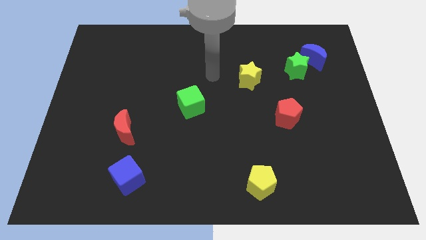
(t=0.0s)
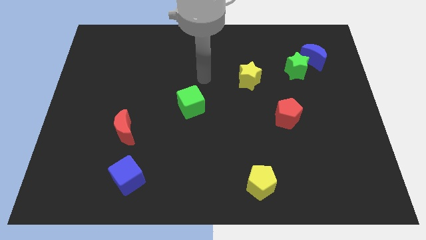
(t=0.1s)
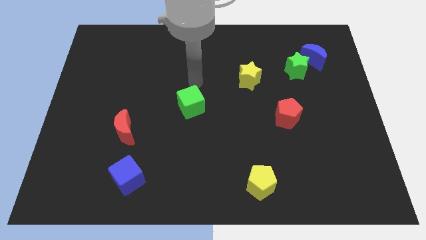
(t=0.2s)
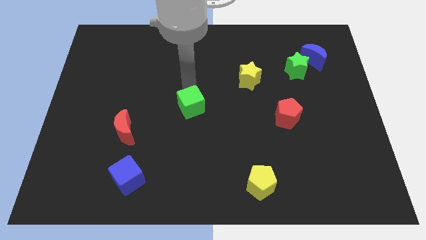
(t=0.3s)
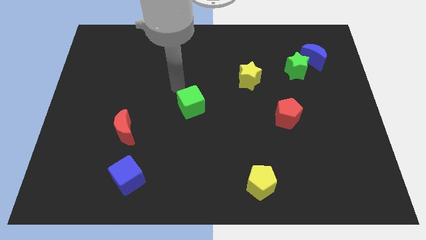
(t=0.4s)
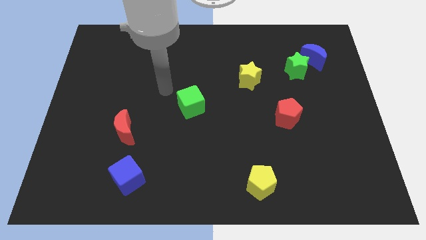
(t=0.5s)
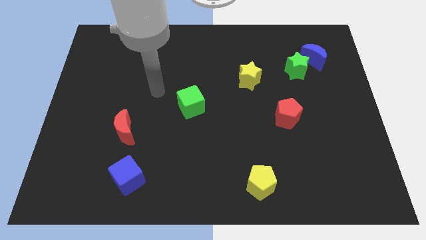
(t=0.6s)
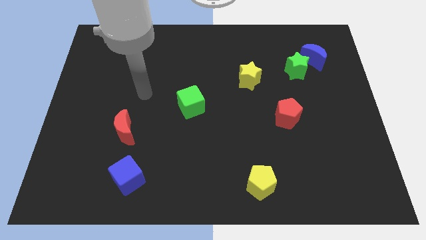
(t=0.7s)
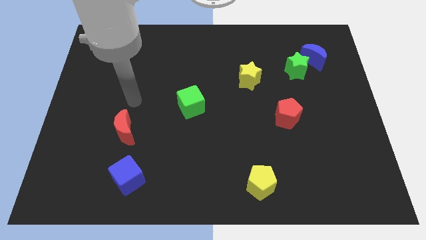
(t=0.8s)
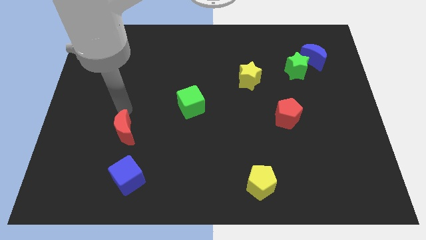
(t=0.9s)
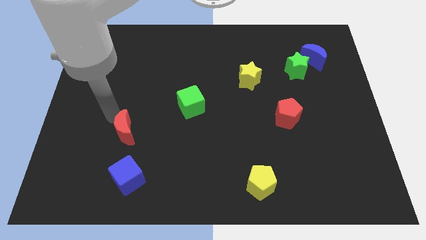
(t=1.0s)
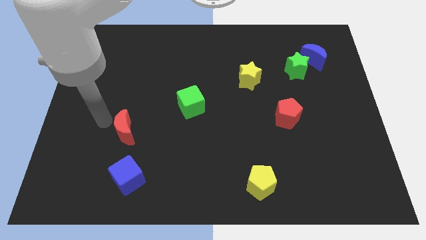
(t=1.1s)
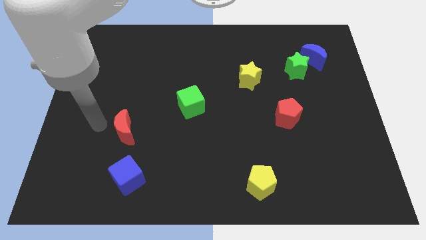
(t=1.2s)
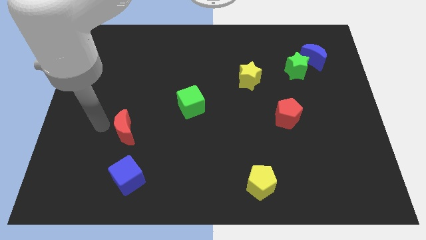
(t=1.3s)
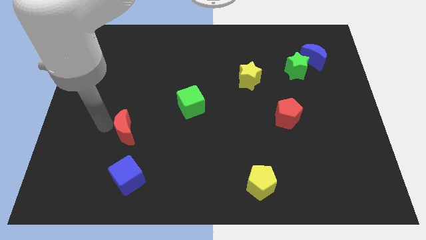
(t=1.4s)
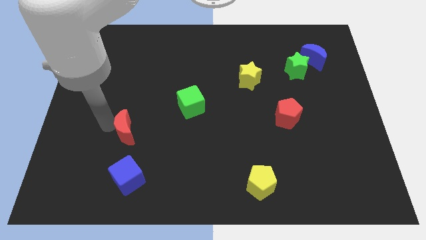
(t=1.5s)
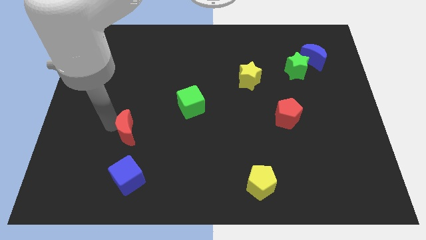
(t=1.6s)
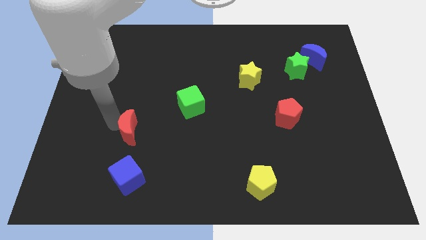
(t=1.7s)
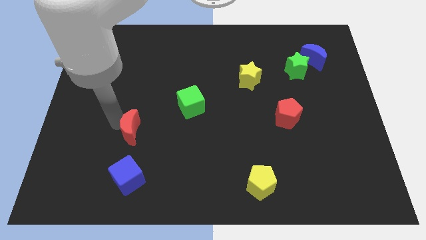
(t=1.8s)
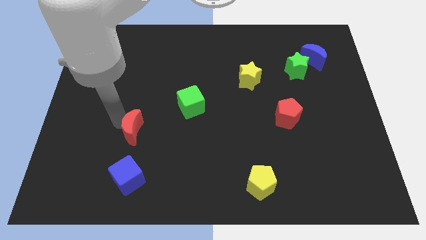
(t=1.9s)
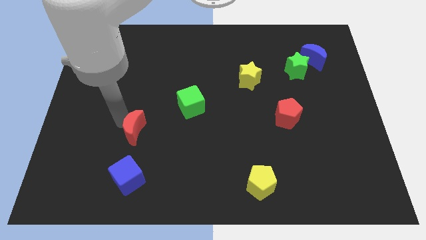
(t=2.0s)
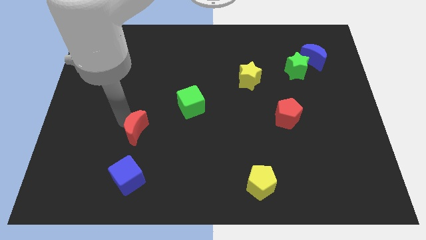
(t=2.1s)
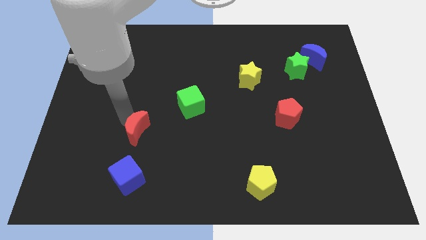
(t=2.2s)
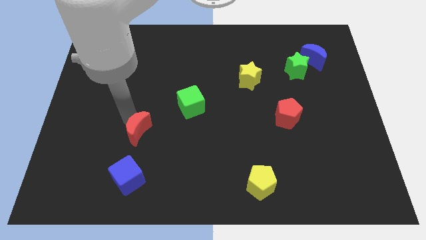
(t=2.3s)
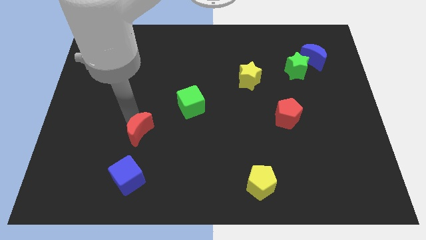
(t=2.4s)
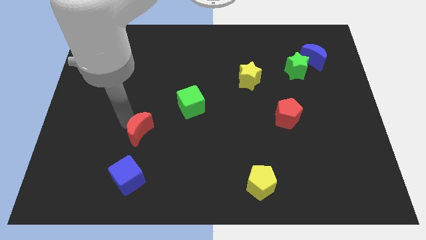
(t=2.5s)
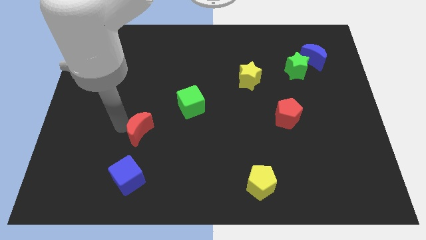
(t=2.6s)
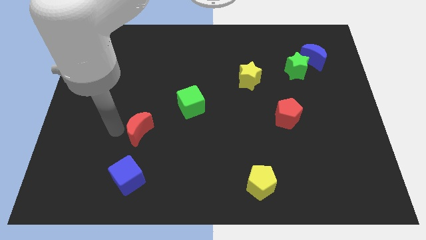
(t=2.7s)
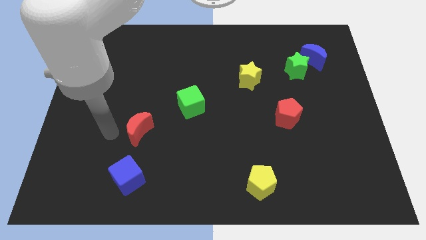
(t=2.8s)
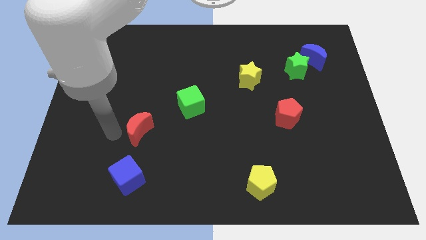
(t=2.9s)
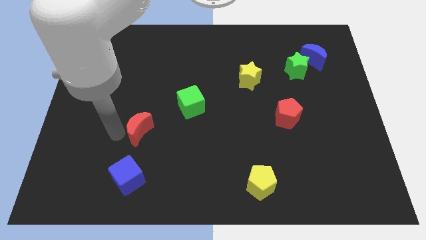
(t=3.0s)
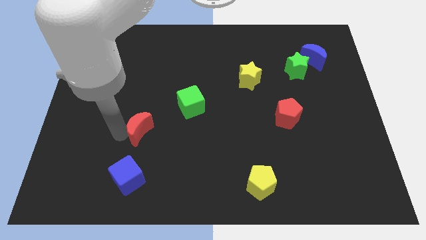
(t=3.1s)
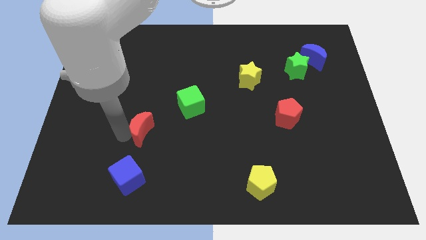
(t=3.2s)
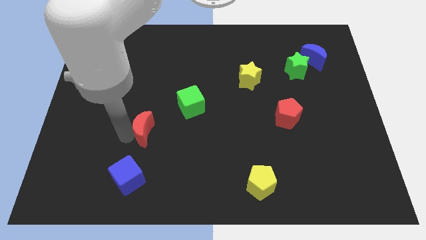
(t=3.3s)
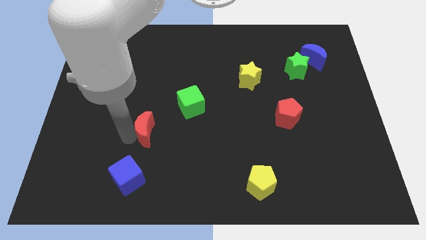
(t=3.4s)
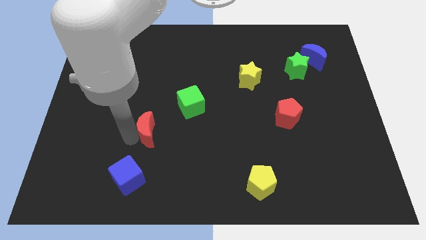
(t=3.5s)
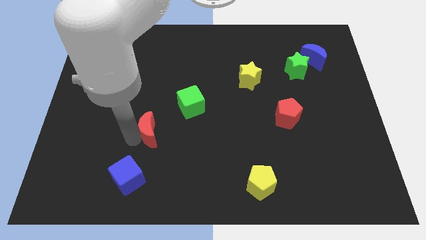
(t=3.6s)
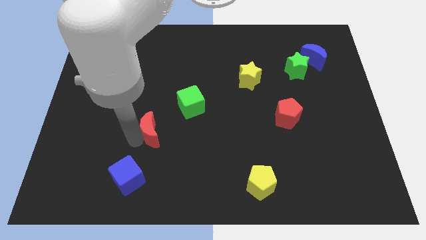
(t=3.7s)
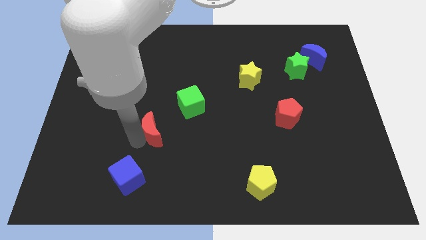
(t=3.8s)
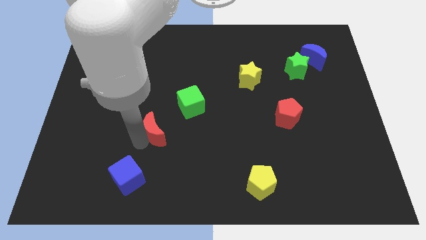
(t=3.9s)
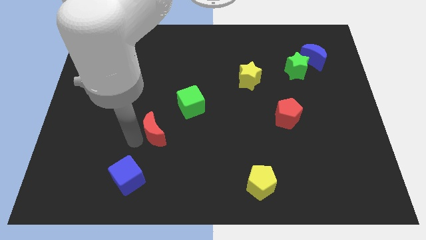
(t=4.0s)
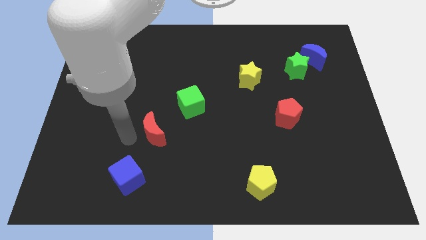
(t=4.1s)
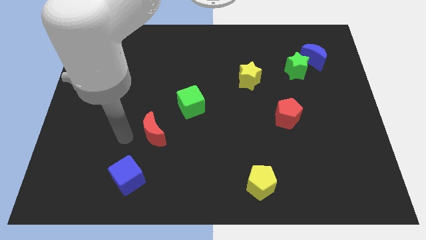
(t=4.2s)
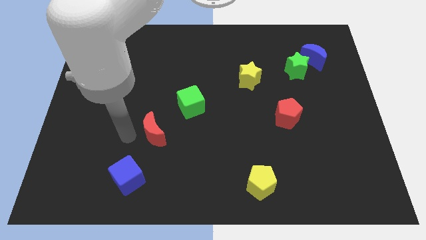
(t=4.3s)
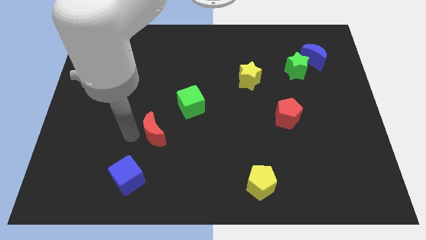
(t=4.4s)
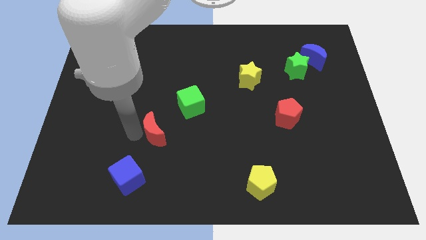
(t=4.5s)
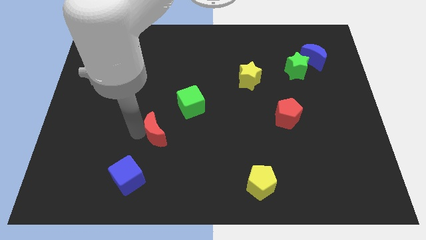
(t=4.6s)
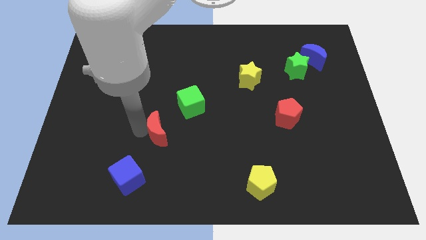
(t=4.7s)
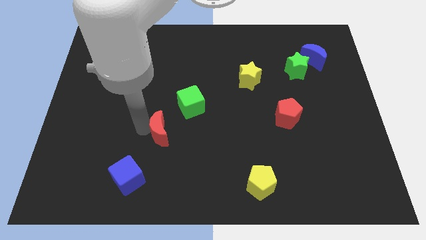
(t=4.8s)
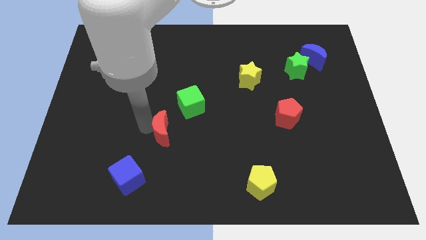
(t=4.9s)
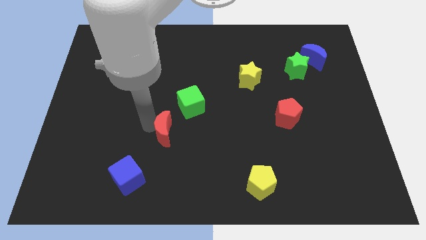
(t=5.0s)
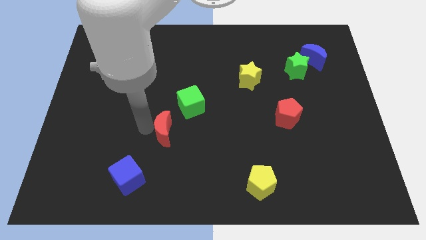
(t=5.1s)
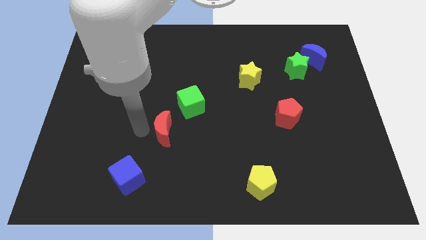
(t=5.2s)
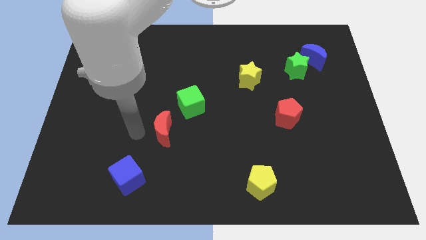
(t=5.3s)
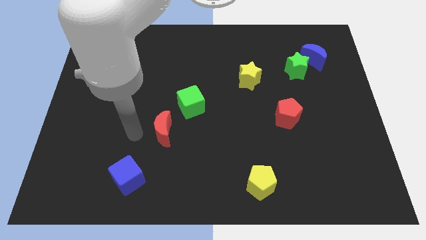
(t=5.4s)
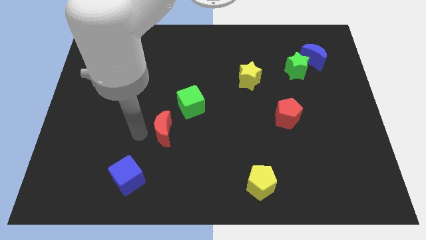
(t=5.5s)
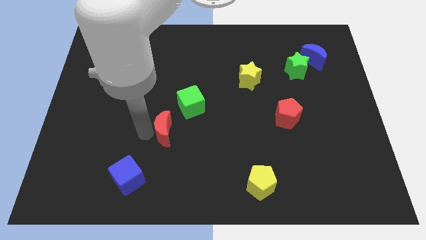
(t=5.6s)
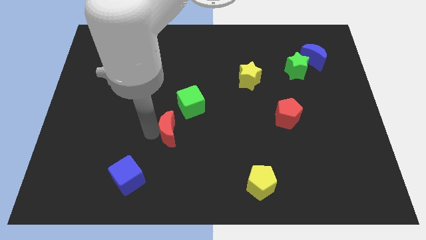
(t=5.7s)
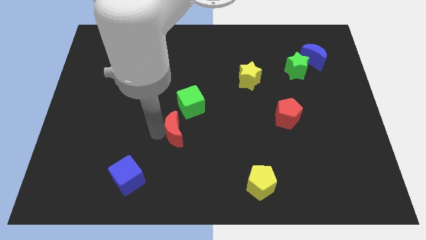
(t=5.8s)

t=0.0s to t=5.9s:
put the red moon to the center of the board

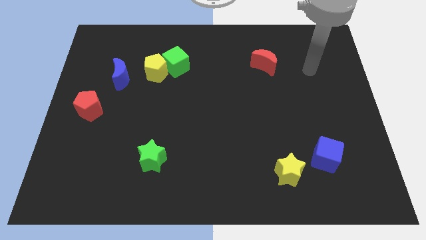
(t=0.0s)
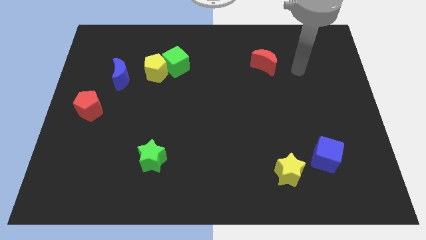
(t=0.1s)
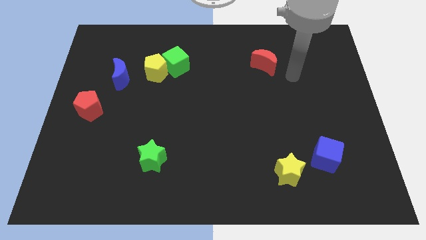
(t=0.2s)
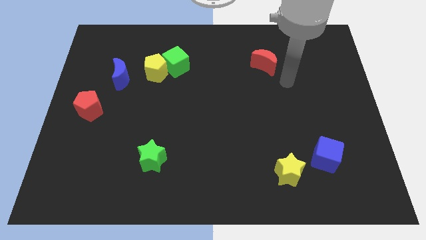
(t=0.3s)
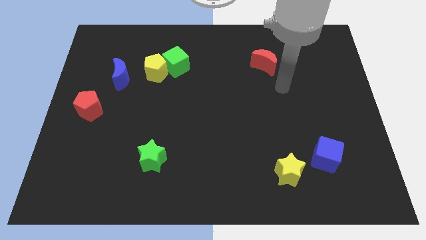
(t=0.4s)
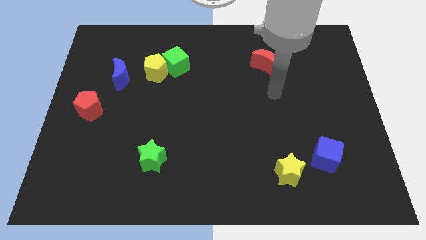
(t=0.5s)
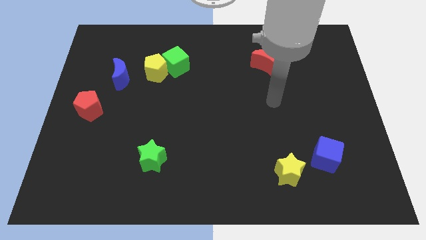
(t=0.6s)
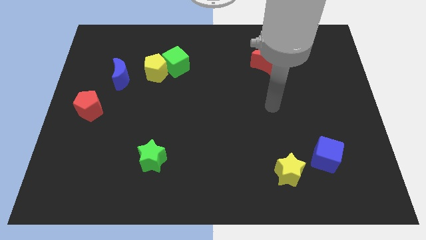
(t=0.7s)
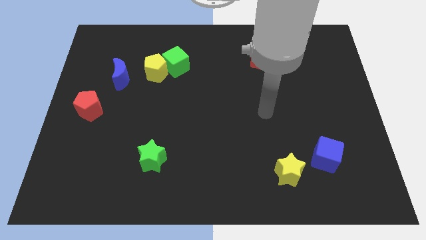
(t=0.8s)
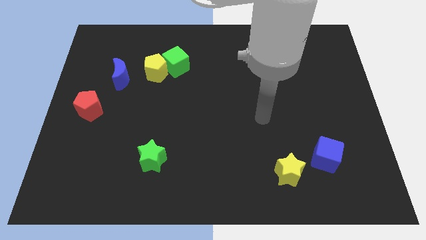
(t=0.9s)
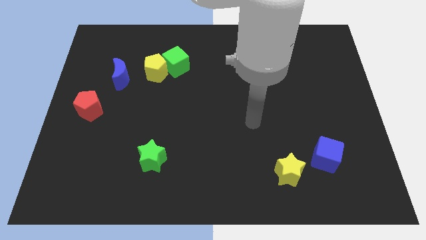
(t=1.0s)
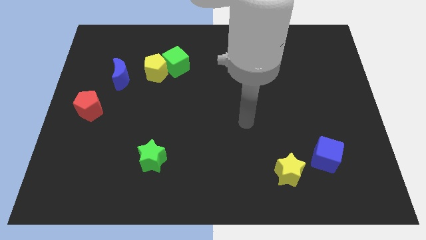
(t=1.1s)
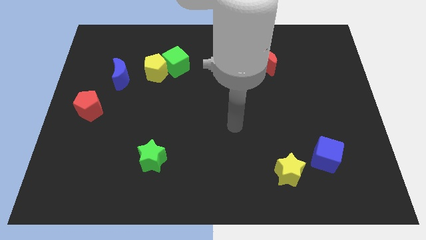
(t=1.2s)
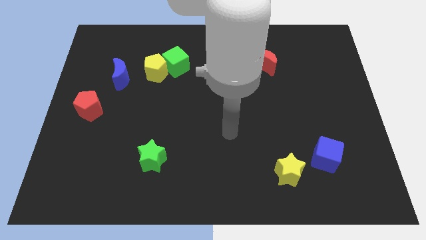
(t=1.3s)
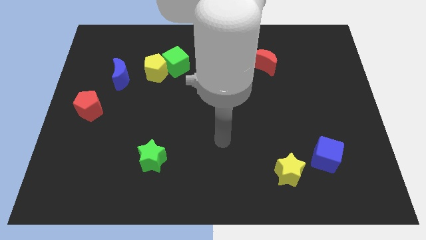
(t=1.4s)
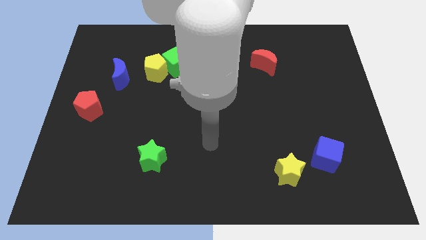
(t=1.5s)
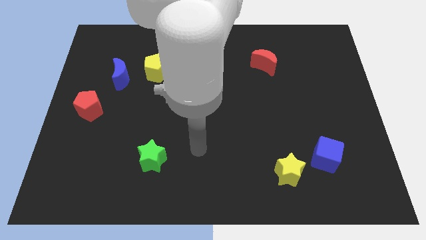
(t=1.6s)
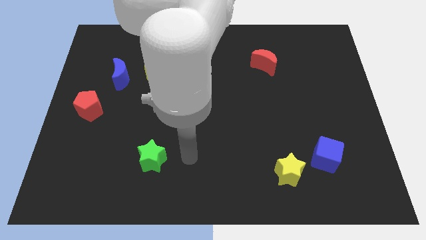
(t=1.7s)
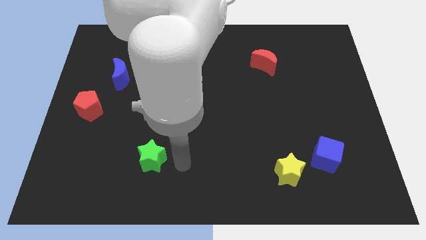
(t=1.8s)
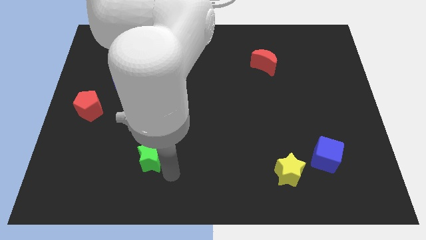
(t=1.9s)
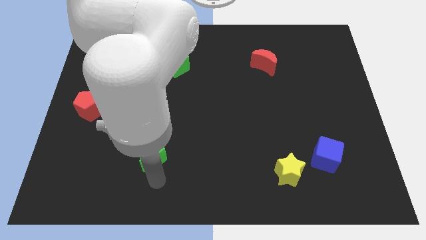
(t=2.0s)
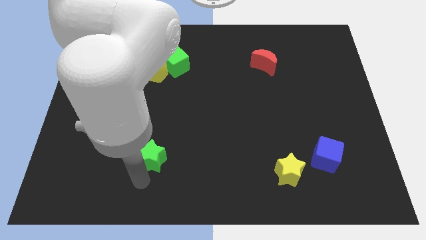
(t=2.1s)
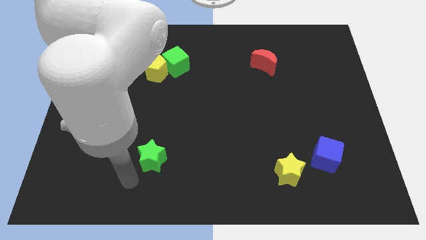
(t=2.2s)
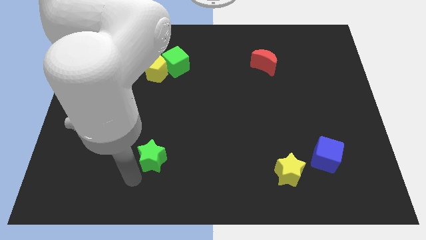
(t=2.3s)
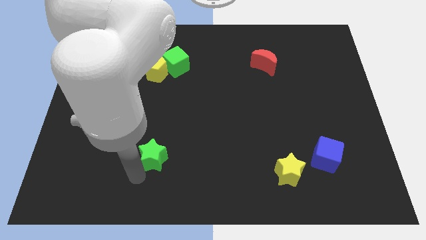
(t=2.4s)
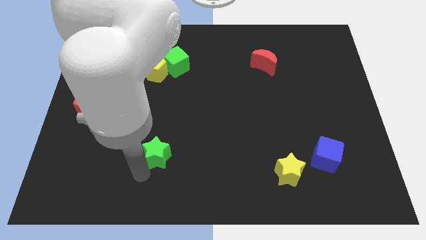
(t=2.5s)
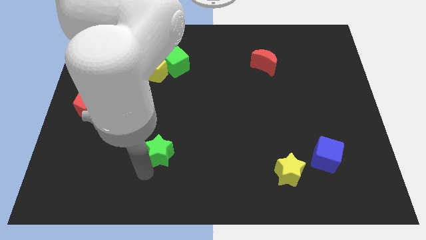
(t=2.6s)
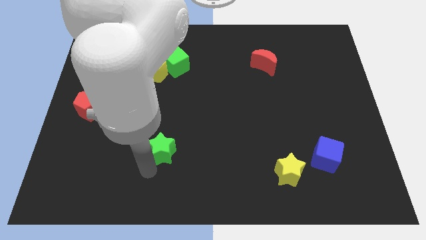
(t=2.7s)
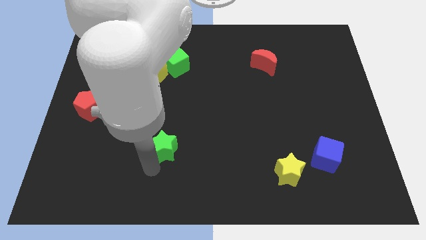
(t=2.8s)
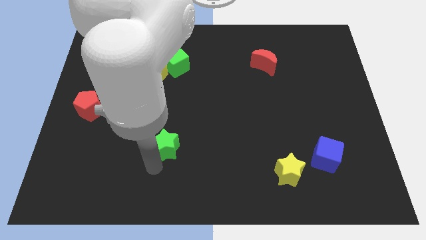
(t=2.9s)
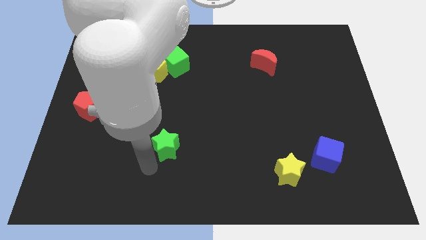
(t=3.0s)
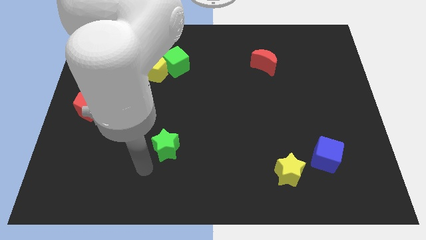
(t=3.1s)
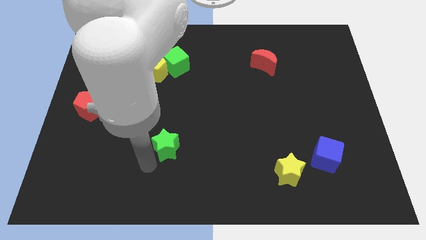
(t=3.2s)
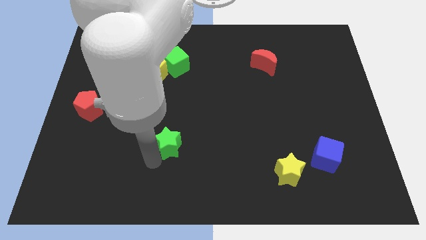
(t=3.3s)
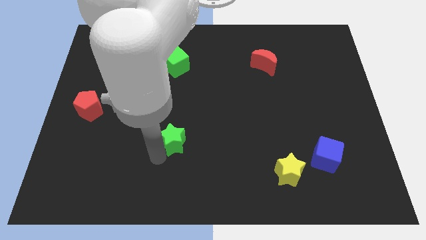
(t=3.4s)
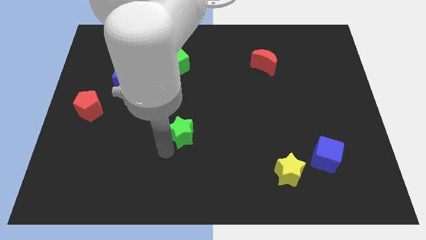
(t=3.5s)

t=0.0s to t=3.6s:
slide the green star to the middle
